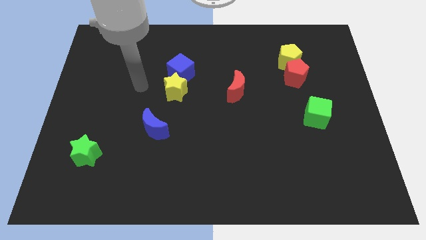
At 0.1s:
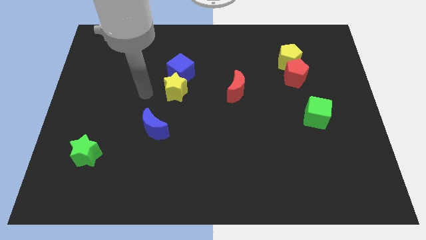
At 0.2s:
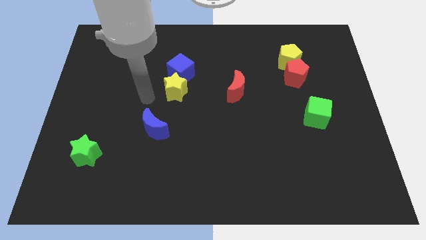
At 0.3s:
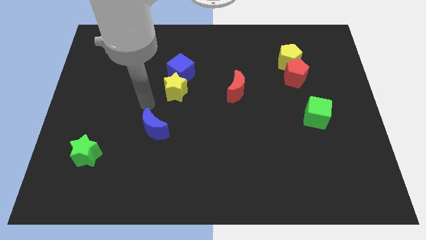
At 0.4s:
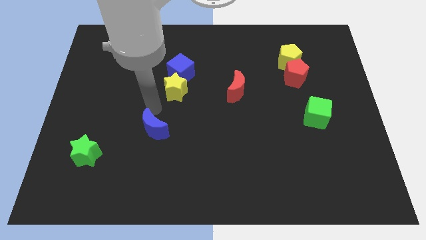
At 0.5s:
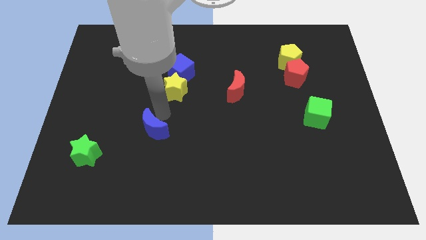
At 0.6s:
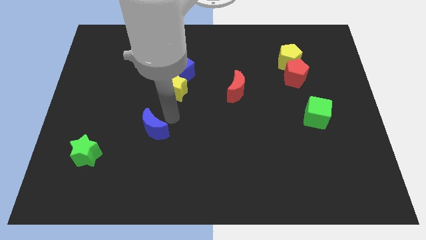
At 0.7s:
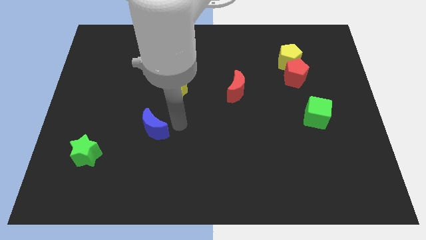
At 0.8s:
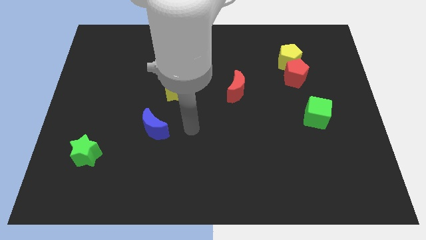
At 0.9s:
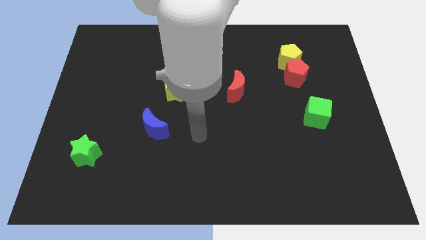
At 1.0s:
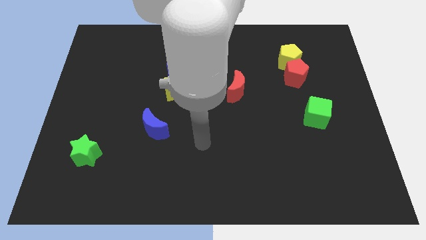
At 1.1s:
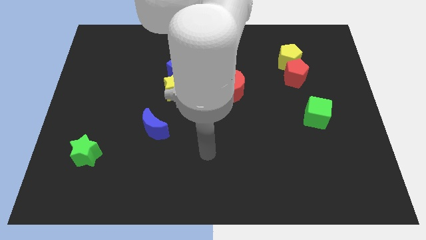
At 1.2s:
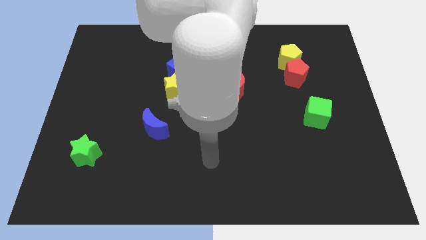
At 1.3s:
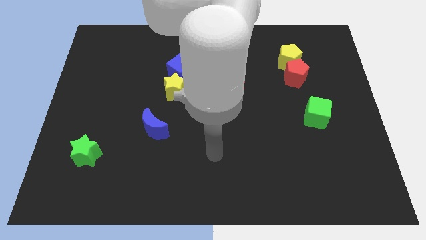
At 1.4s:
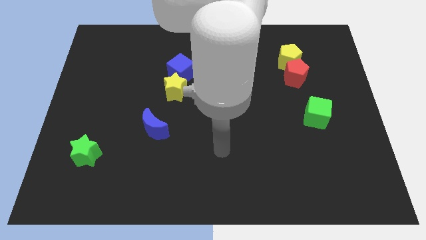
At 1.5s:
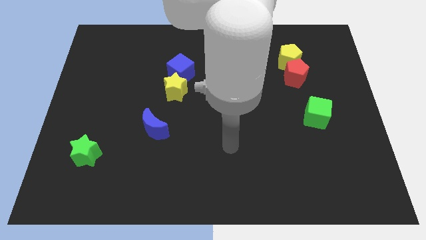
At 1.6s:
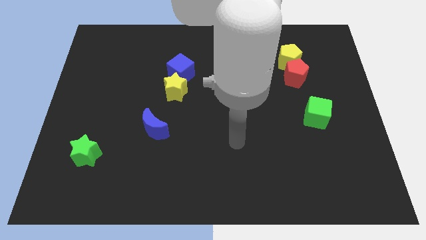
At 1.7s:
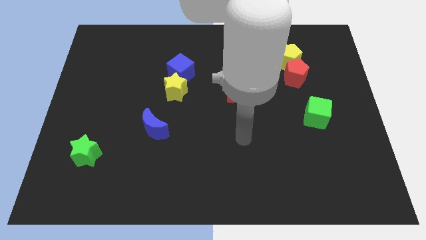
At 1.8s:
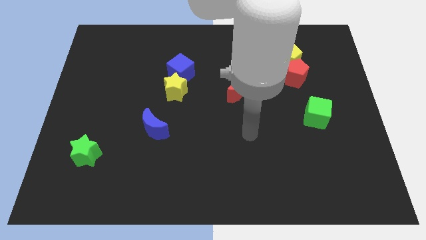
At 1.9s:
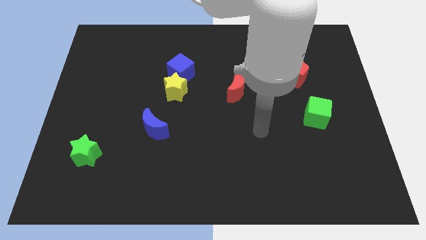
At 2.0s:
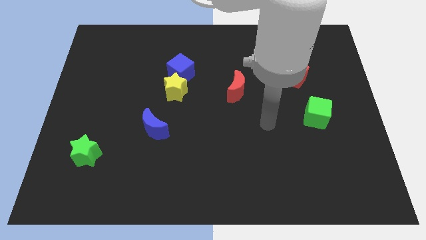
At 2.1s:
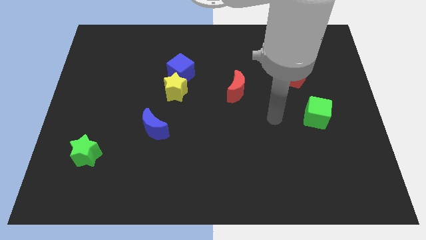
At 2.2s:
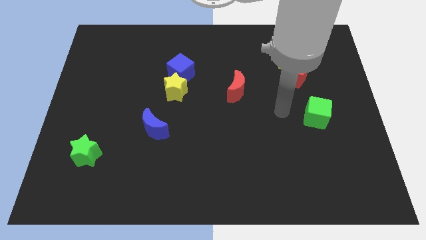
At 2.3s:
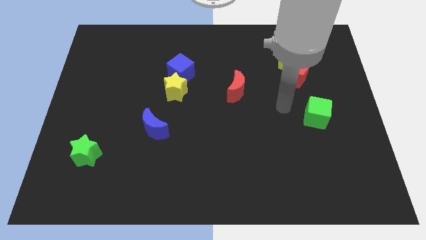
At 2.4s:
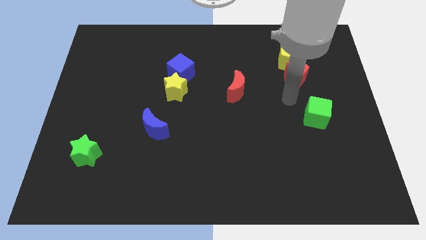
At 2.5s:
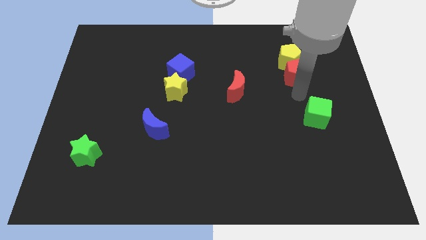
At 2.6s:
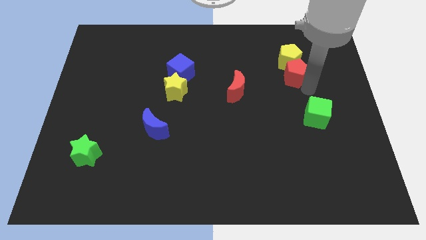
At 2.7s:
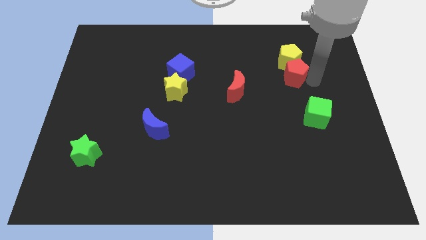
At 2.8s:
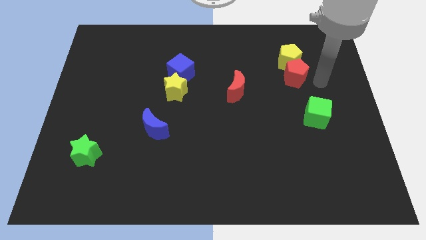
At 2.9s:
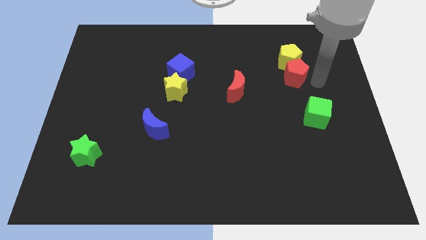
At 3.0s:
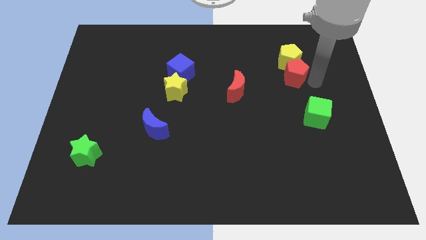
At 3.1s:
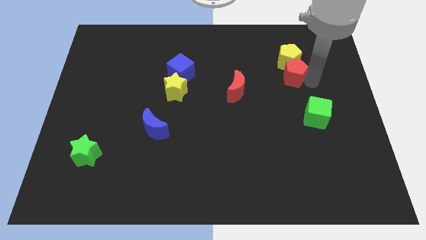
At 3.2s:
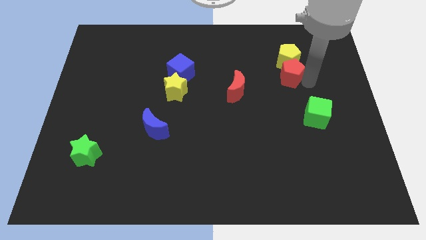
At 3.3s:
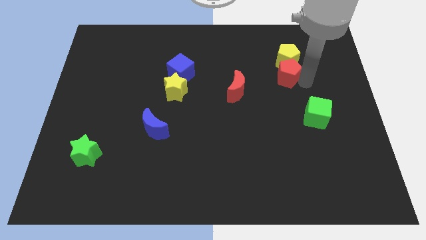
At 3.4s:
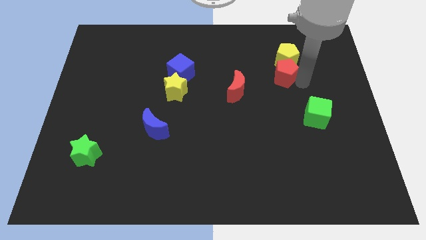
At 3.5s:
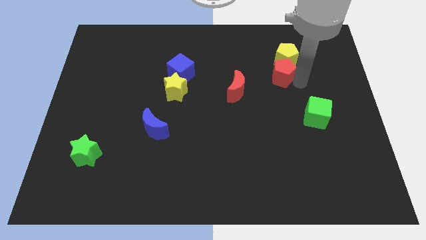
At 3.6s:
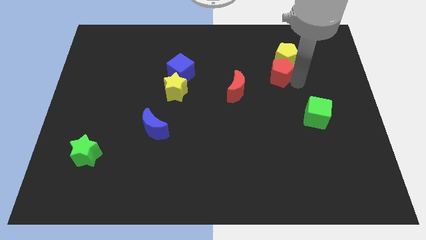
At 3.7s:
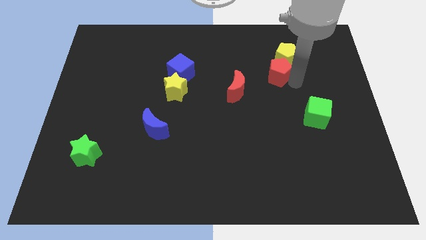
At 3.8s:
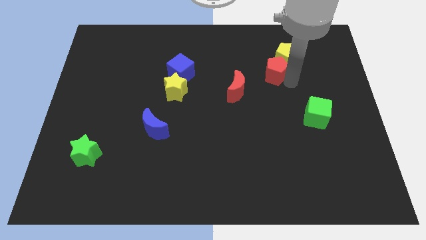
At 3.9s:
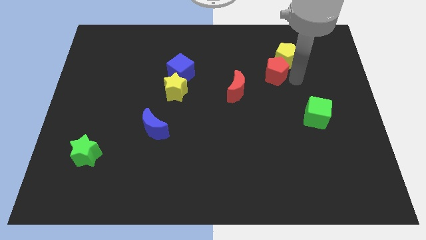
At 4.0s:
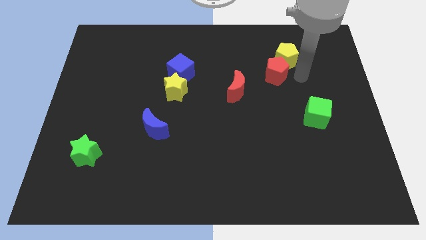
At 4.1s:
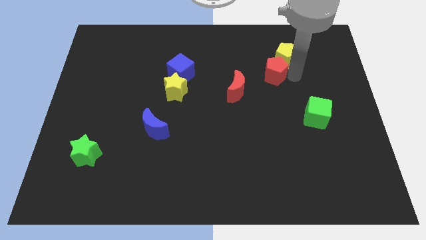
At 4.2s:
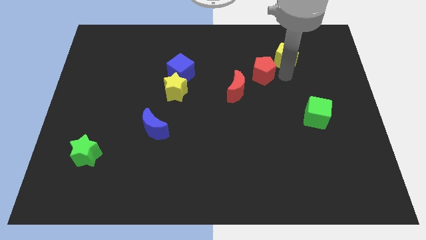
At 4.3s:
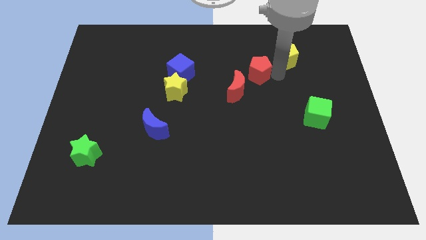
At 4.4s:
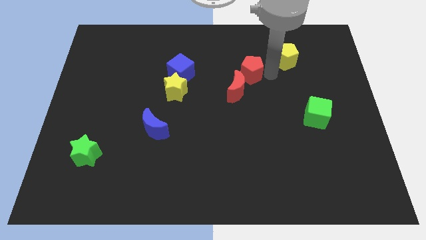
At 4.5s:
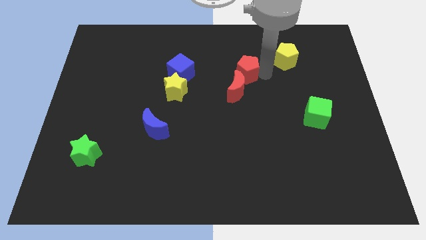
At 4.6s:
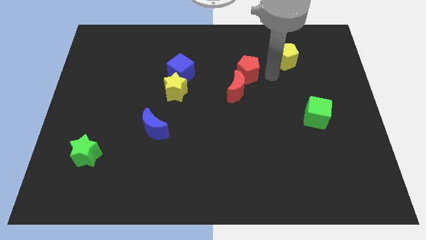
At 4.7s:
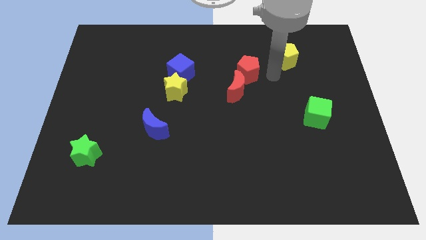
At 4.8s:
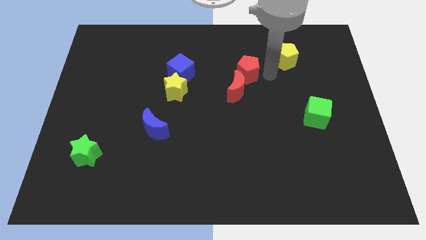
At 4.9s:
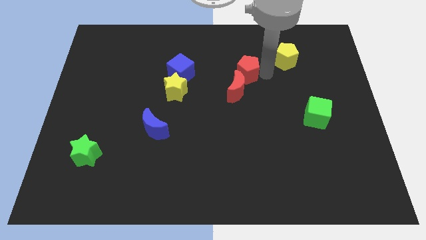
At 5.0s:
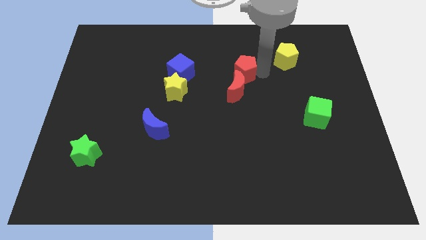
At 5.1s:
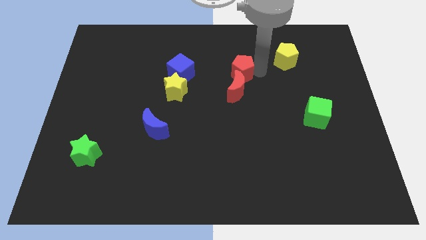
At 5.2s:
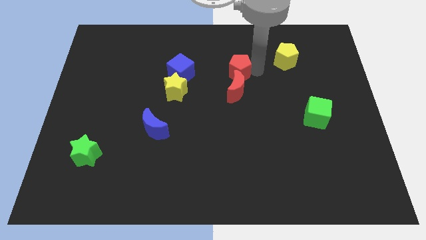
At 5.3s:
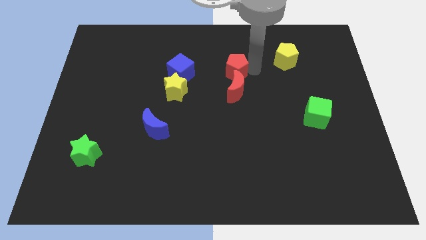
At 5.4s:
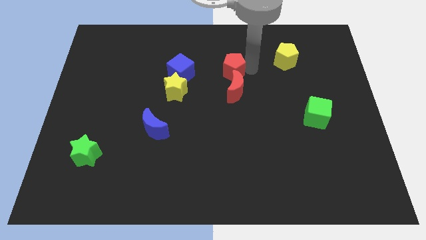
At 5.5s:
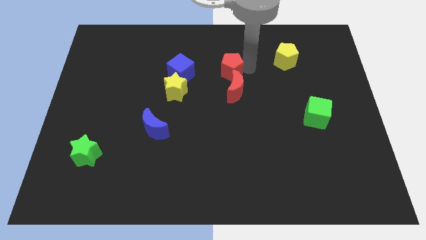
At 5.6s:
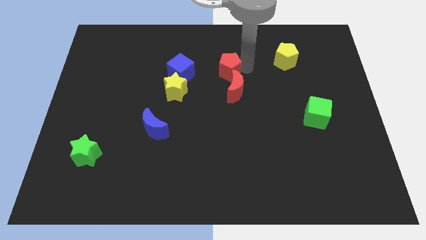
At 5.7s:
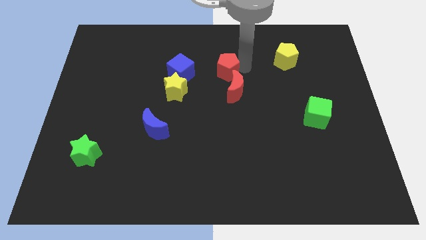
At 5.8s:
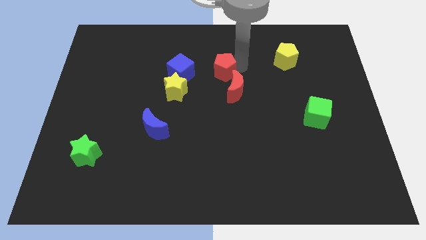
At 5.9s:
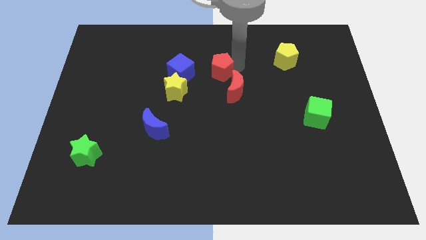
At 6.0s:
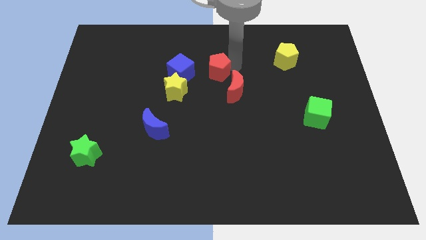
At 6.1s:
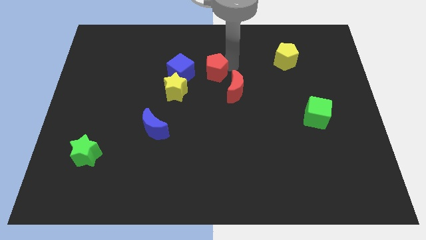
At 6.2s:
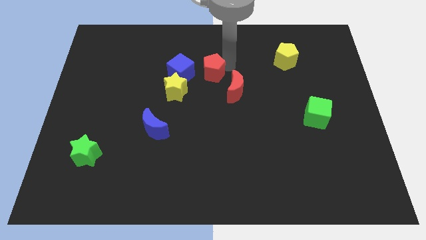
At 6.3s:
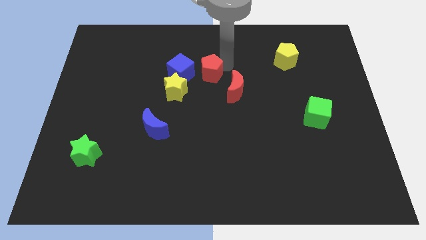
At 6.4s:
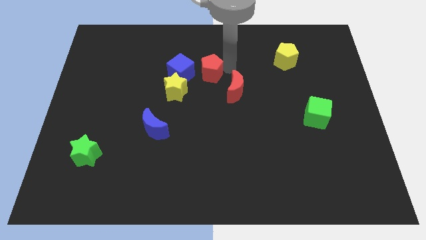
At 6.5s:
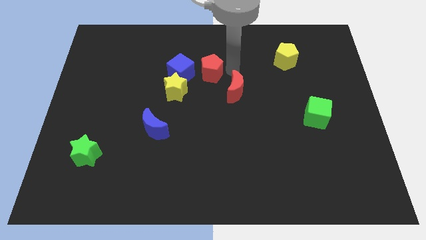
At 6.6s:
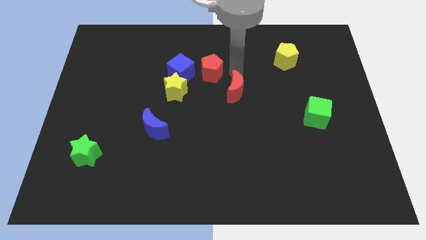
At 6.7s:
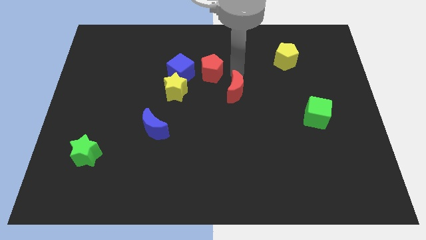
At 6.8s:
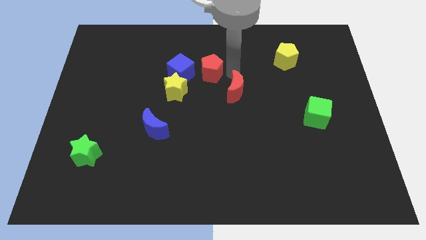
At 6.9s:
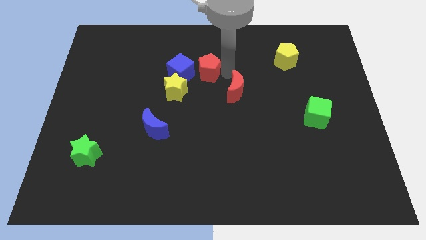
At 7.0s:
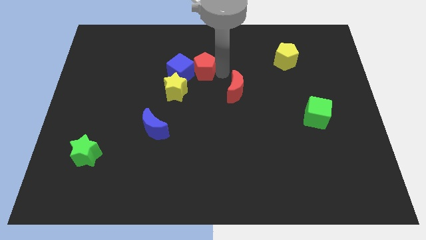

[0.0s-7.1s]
push the red pentagon towards the blue cube
